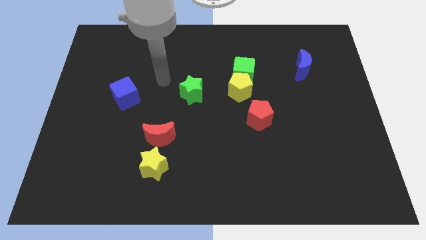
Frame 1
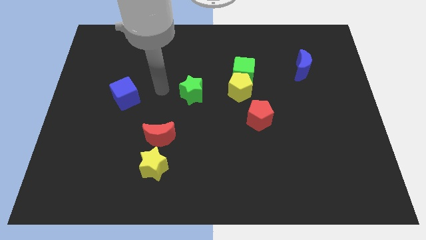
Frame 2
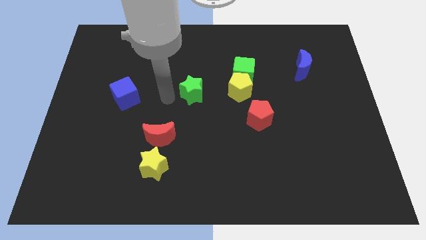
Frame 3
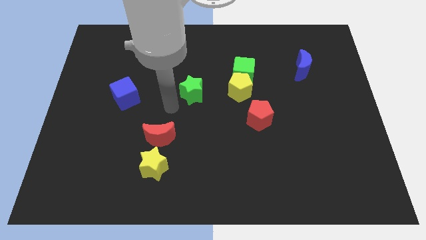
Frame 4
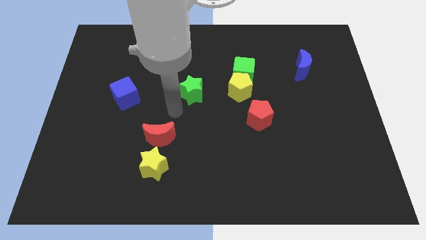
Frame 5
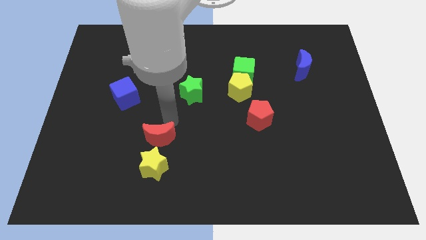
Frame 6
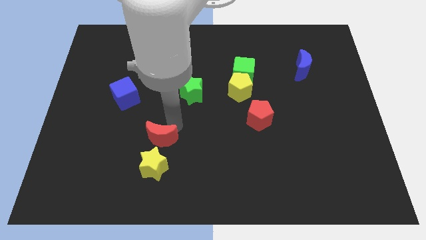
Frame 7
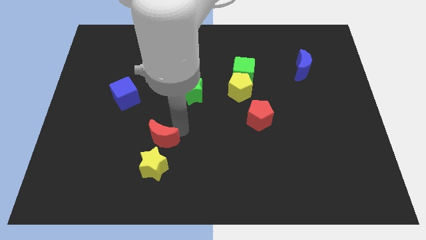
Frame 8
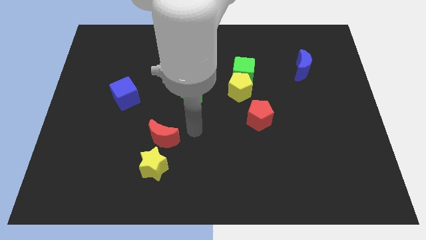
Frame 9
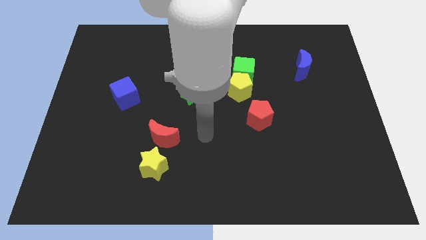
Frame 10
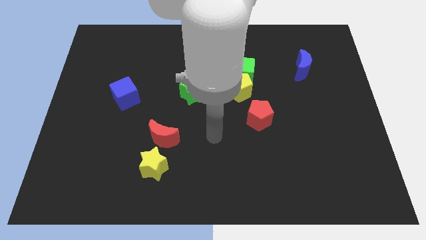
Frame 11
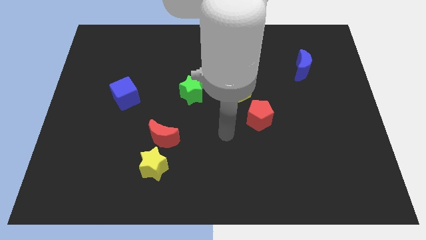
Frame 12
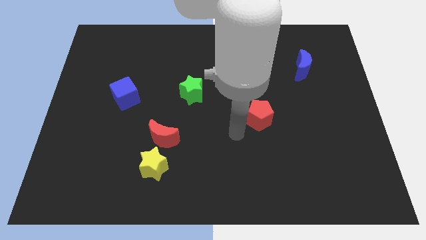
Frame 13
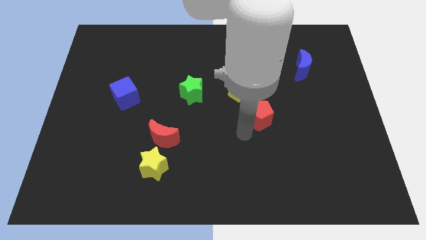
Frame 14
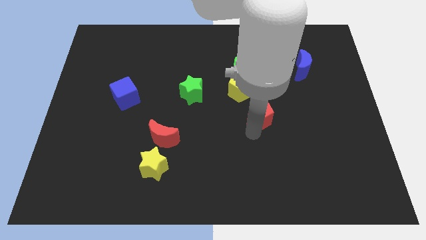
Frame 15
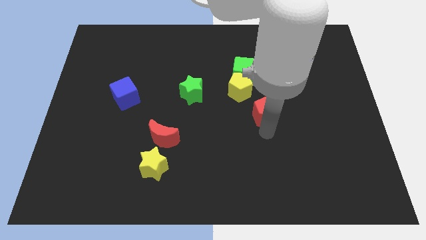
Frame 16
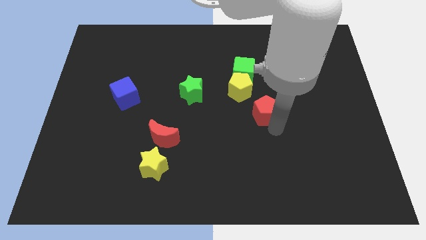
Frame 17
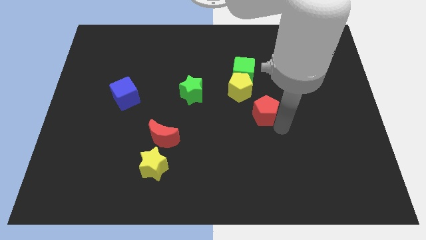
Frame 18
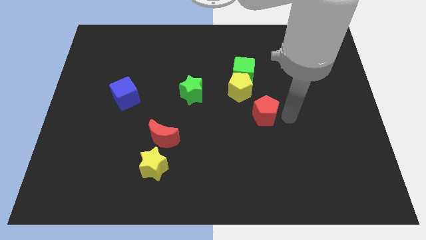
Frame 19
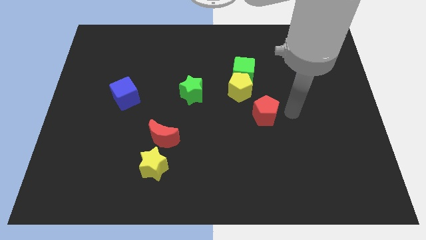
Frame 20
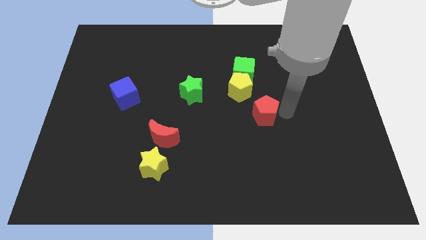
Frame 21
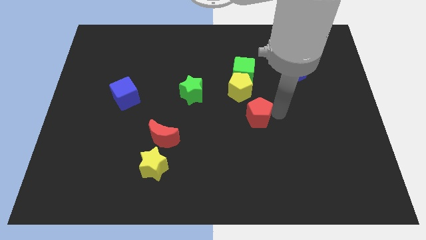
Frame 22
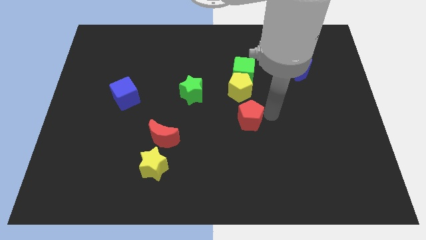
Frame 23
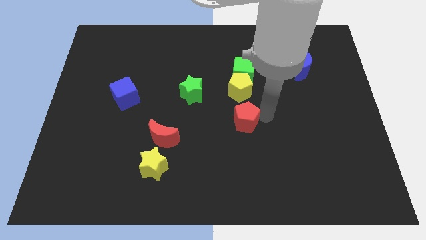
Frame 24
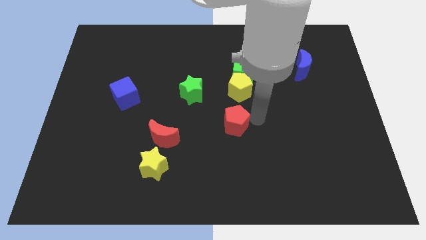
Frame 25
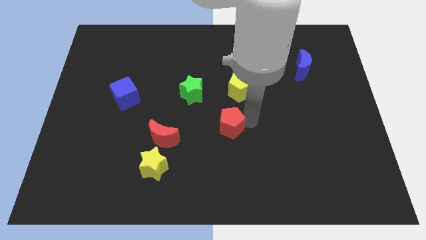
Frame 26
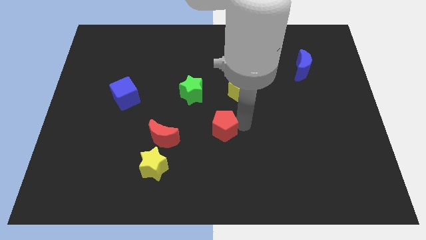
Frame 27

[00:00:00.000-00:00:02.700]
push the red pentagon to the left slightly

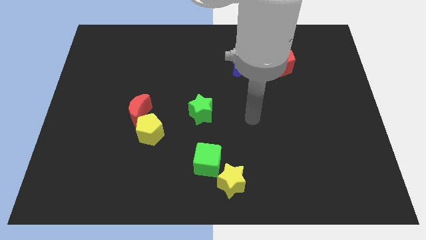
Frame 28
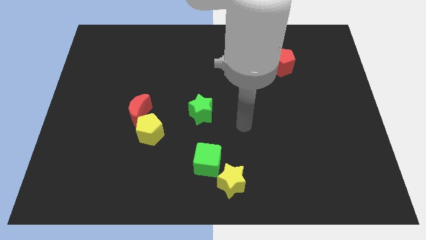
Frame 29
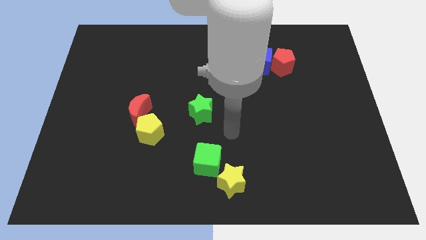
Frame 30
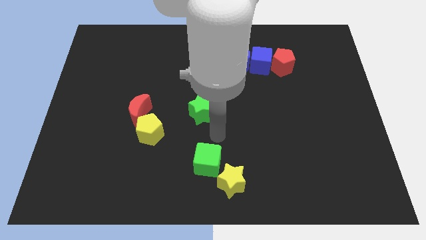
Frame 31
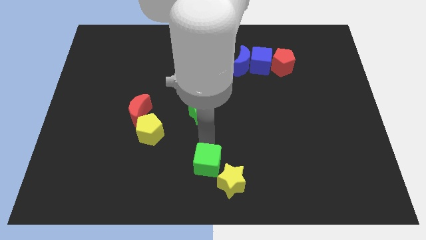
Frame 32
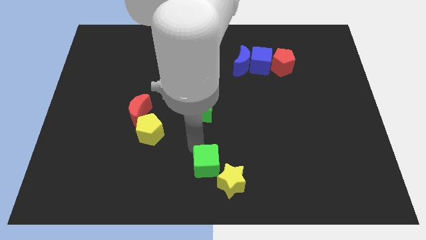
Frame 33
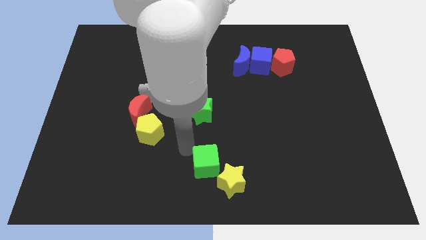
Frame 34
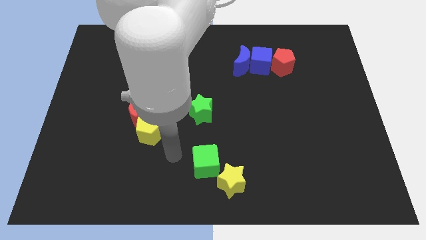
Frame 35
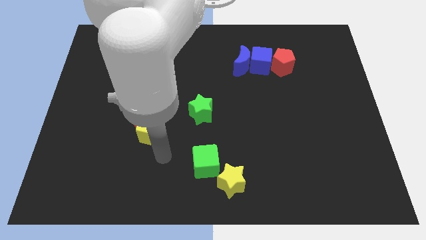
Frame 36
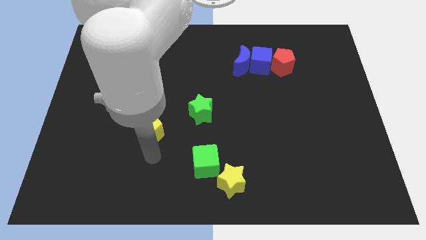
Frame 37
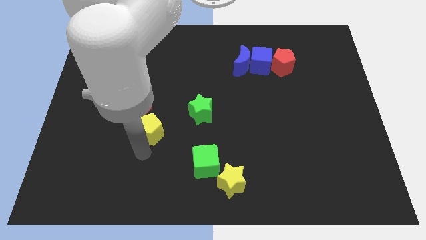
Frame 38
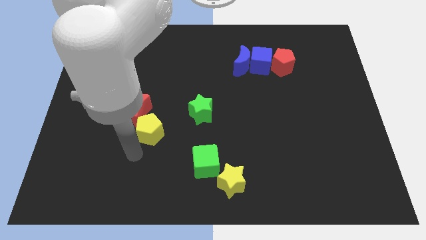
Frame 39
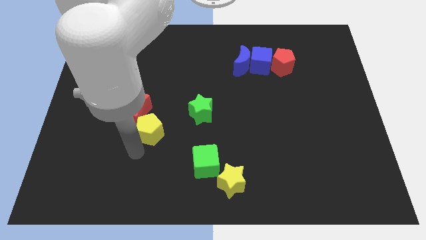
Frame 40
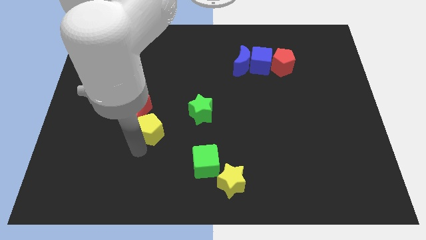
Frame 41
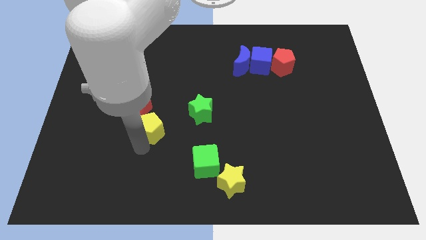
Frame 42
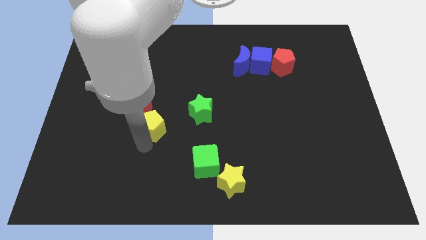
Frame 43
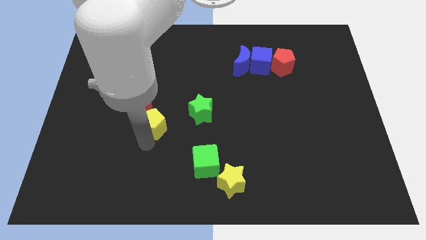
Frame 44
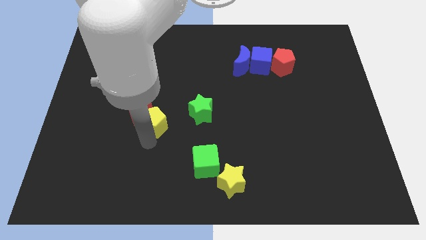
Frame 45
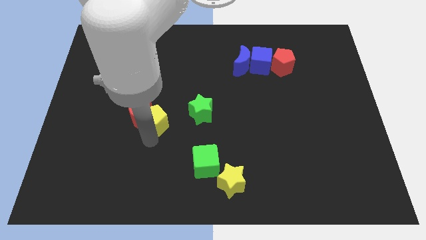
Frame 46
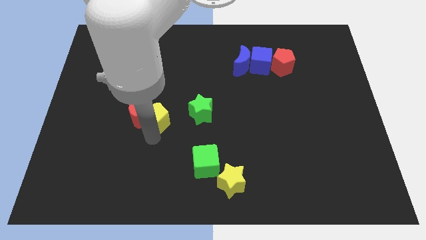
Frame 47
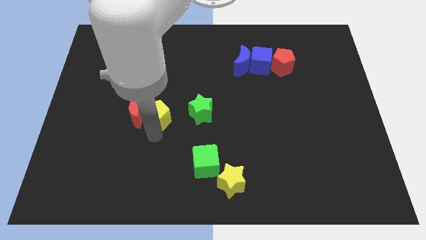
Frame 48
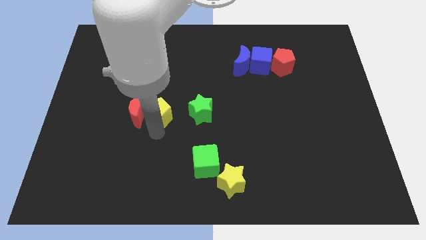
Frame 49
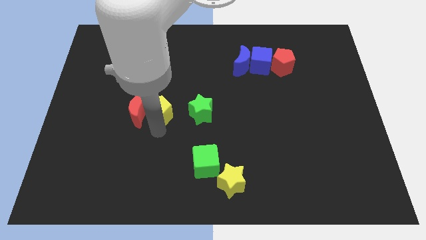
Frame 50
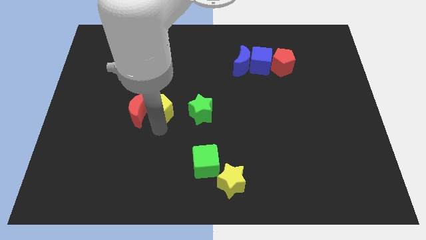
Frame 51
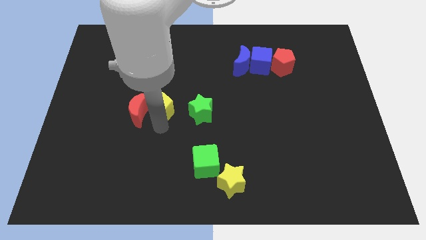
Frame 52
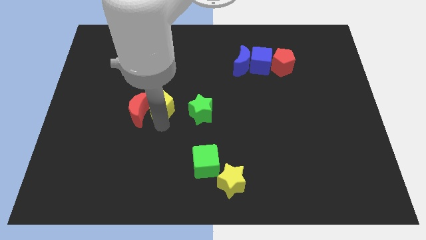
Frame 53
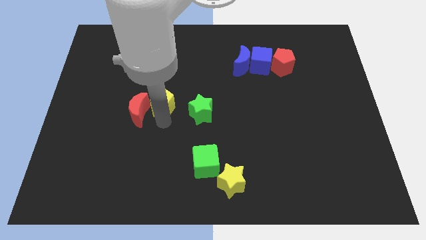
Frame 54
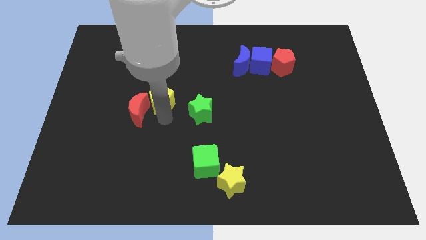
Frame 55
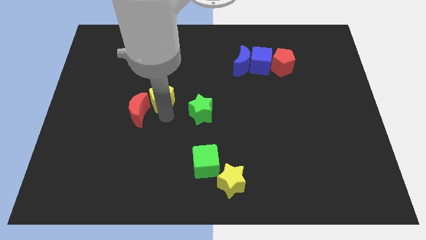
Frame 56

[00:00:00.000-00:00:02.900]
move the yellow pentagon a little up and then right

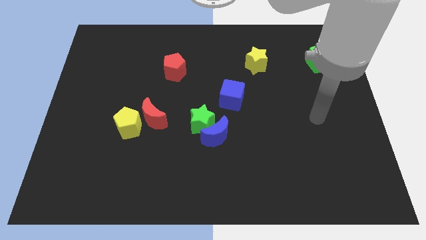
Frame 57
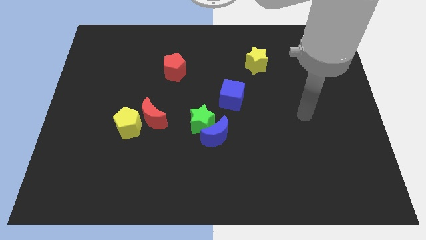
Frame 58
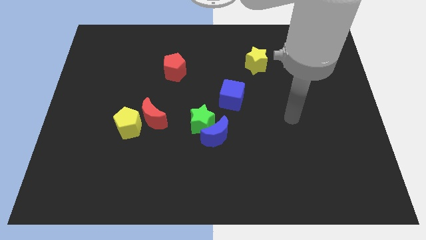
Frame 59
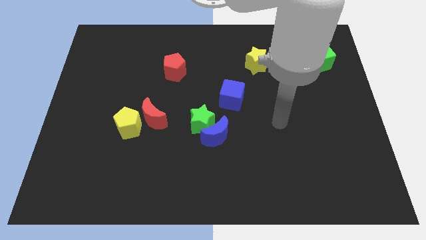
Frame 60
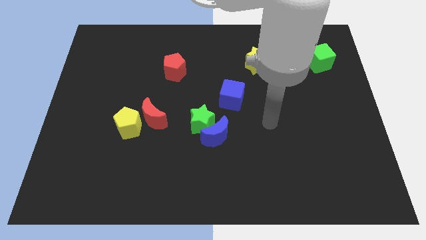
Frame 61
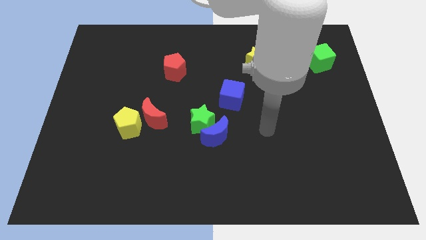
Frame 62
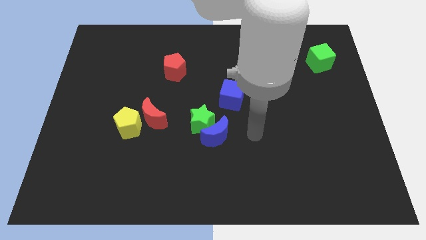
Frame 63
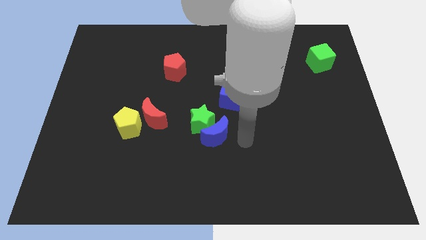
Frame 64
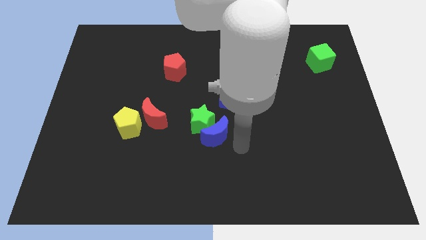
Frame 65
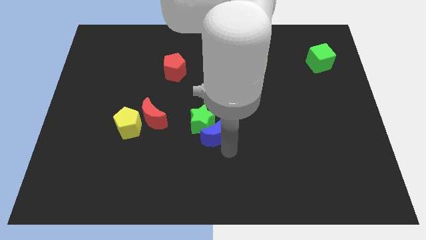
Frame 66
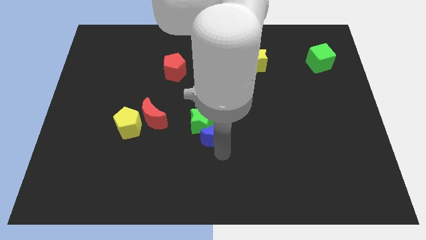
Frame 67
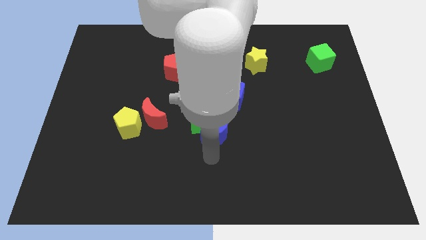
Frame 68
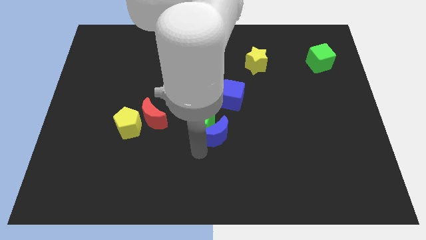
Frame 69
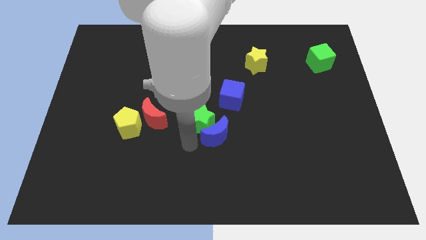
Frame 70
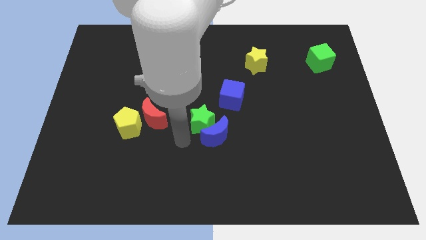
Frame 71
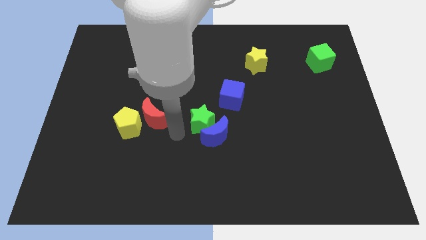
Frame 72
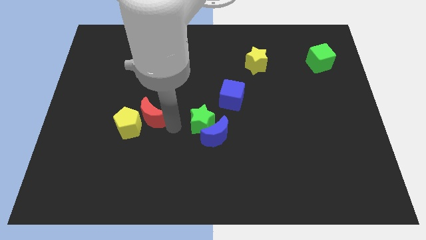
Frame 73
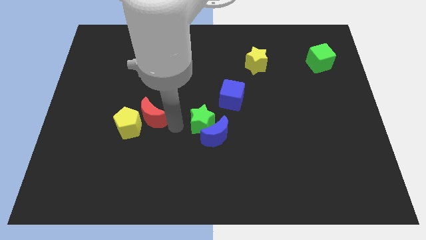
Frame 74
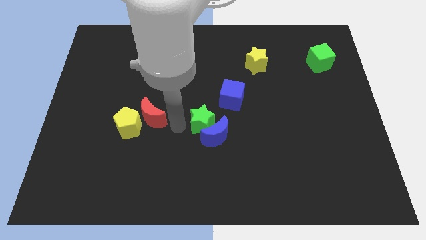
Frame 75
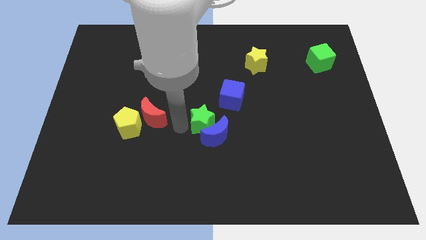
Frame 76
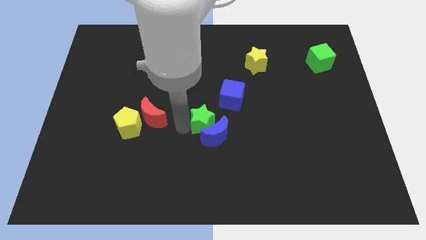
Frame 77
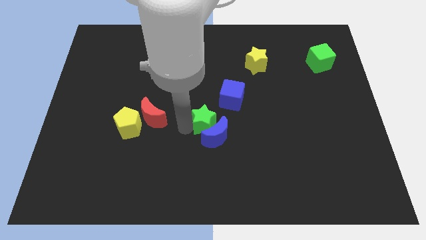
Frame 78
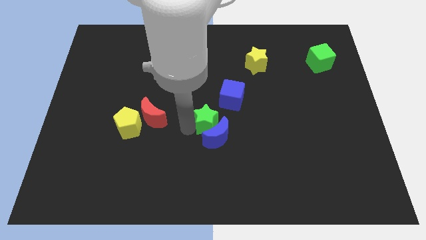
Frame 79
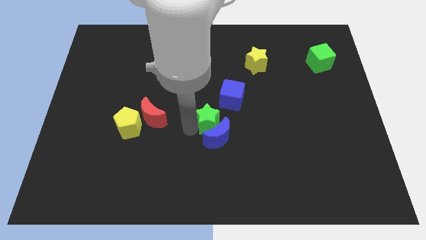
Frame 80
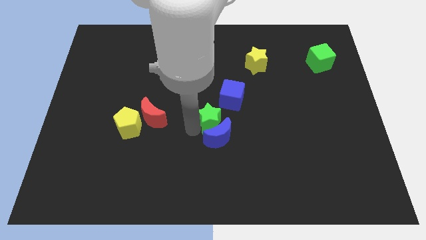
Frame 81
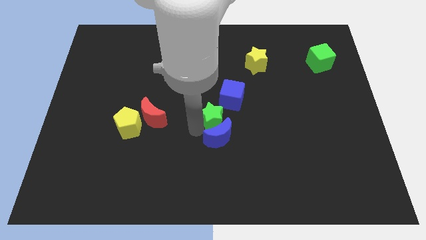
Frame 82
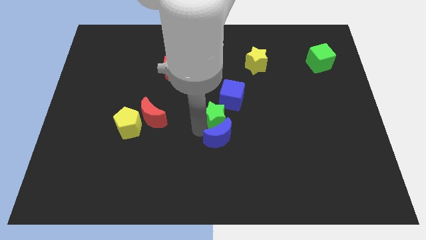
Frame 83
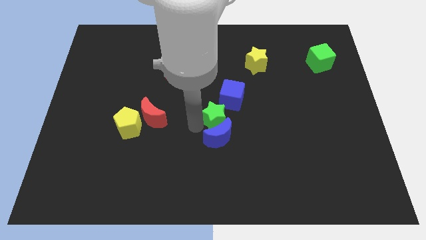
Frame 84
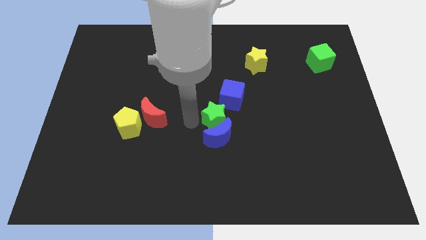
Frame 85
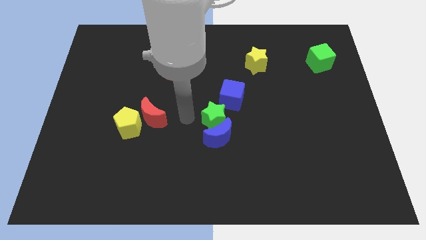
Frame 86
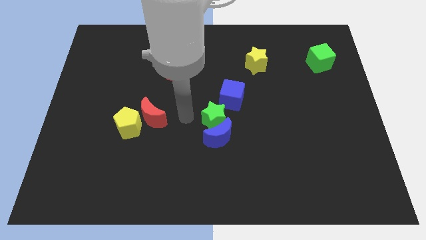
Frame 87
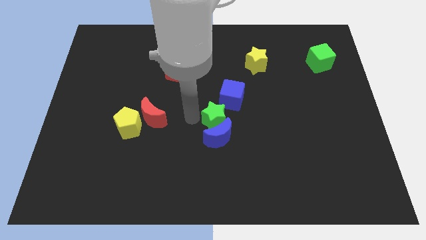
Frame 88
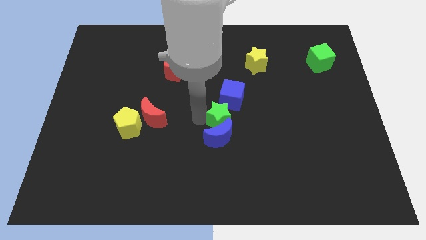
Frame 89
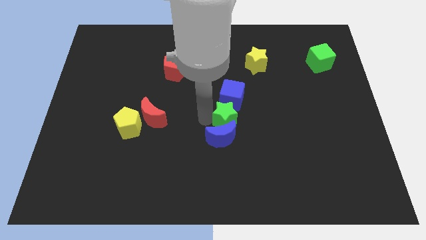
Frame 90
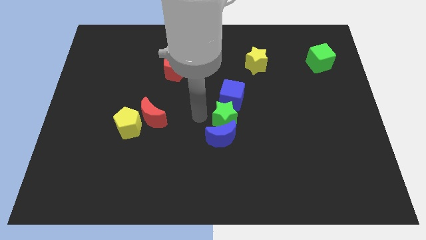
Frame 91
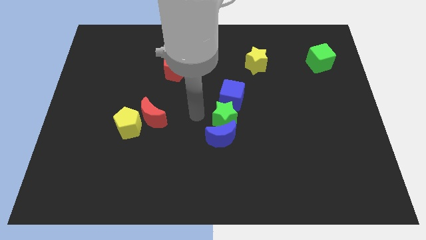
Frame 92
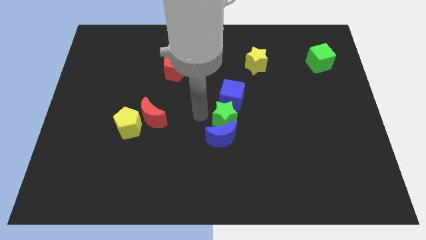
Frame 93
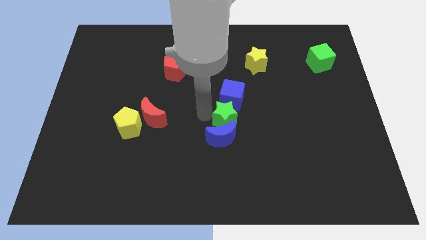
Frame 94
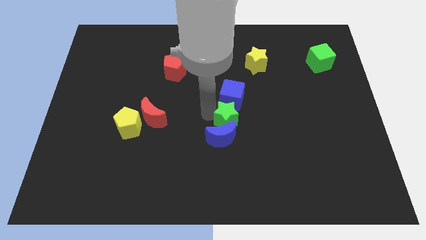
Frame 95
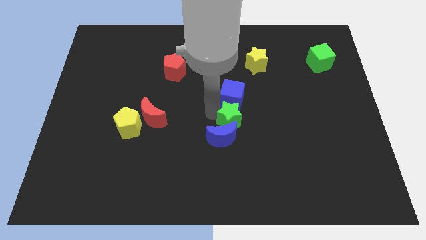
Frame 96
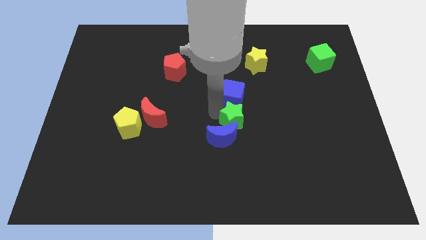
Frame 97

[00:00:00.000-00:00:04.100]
move the green star right a bit
